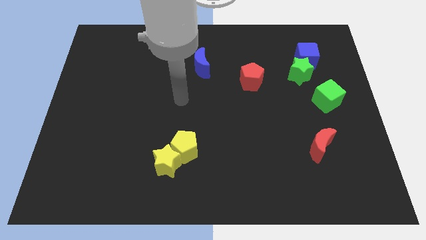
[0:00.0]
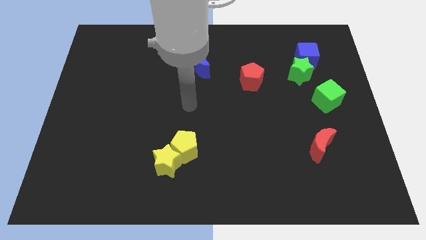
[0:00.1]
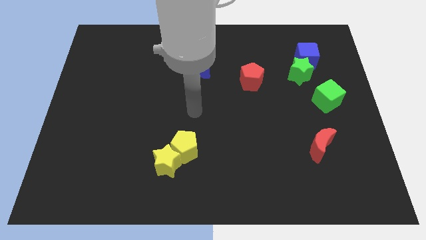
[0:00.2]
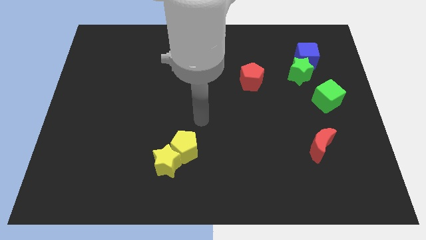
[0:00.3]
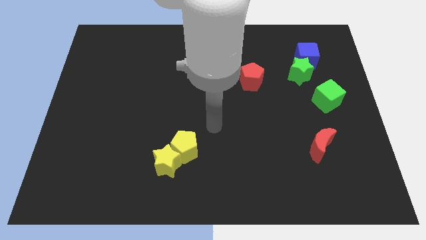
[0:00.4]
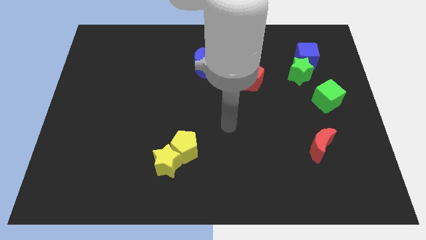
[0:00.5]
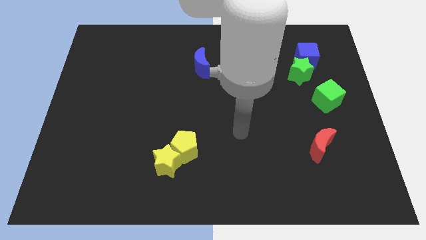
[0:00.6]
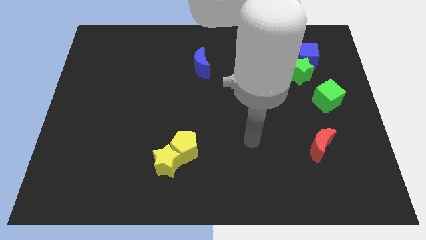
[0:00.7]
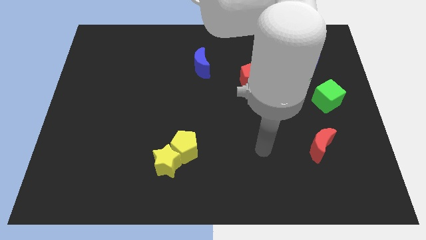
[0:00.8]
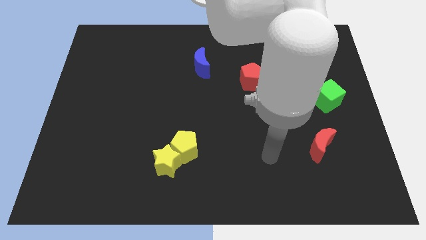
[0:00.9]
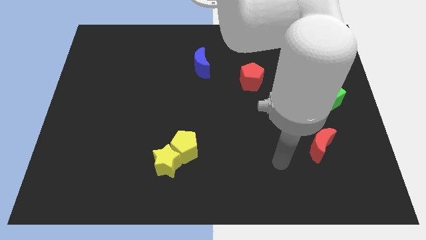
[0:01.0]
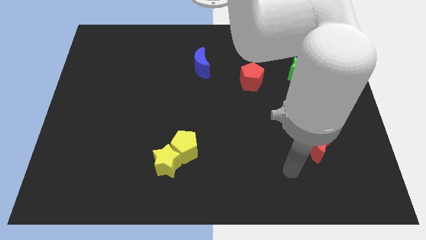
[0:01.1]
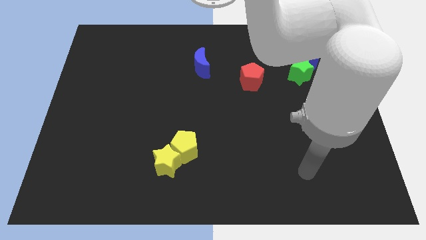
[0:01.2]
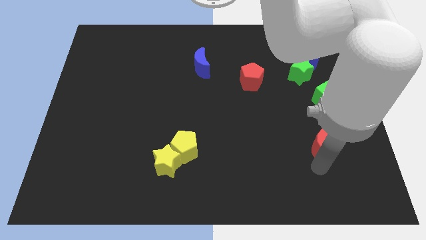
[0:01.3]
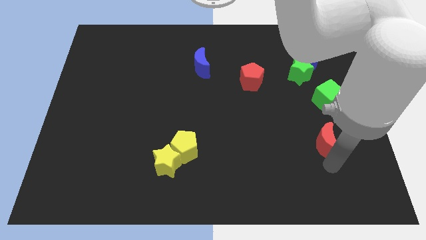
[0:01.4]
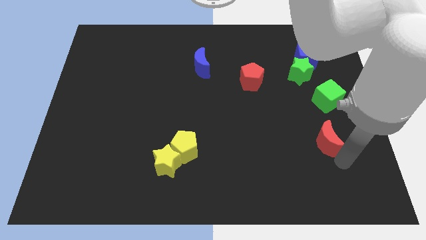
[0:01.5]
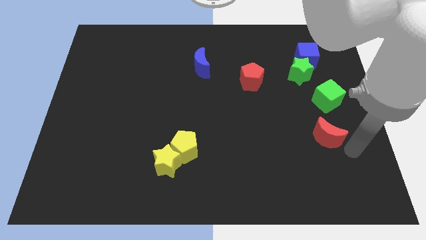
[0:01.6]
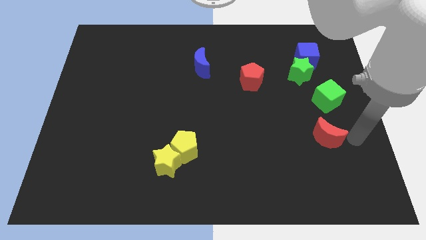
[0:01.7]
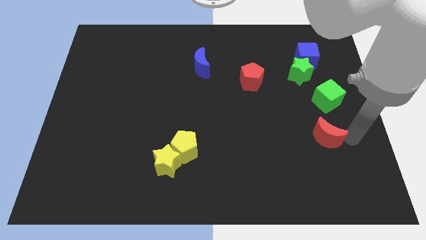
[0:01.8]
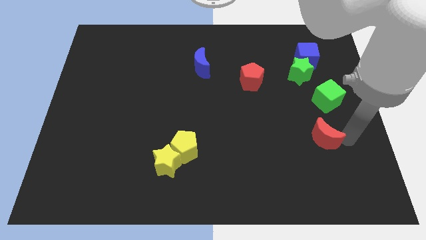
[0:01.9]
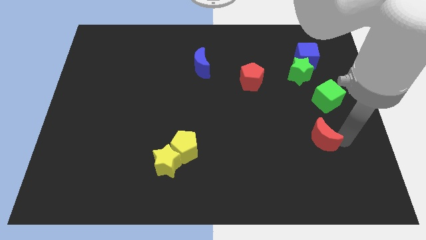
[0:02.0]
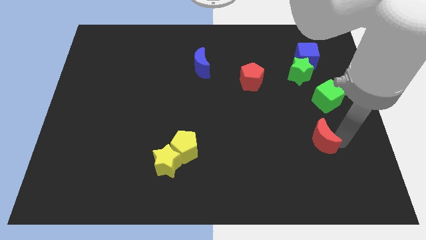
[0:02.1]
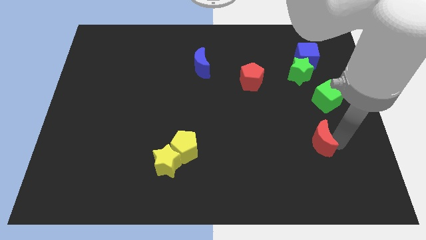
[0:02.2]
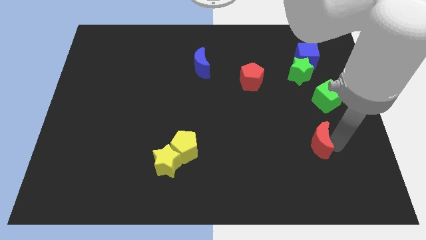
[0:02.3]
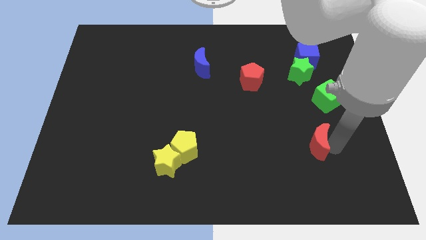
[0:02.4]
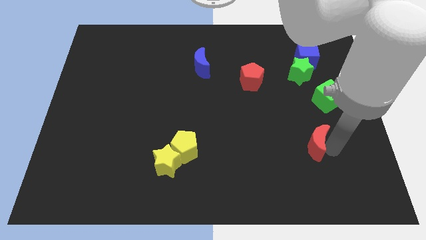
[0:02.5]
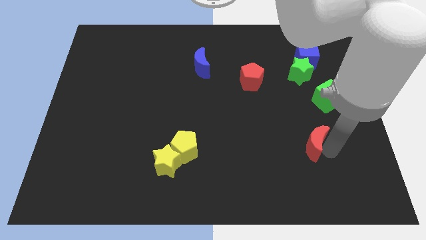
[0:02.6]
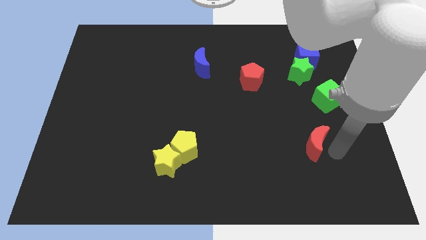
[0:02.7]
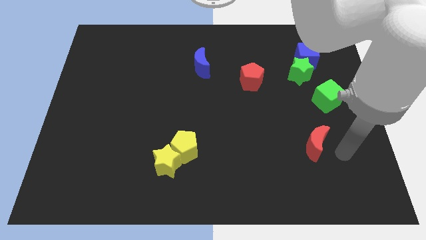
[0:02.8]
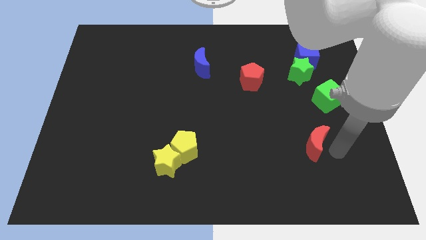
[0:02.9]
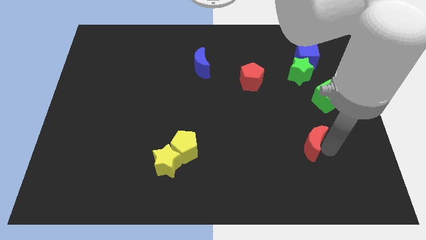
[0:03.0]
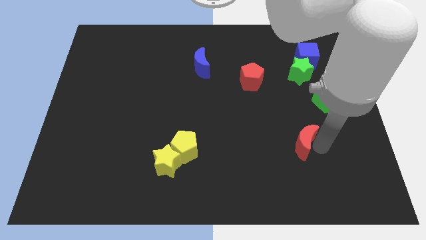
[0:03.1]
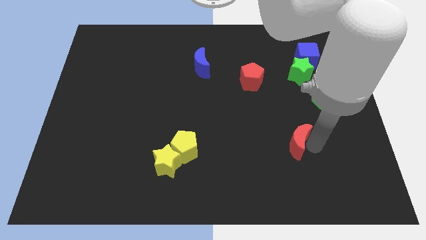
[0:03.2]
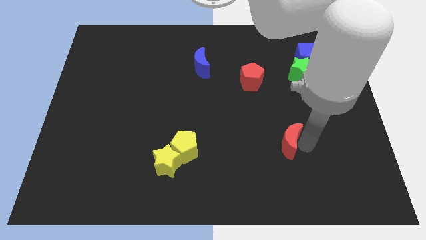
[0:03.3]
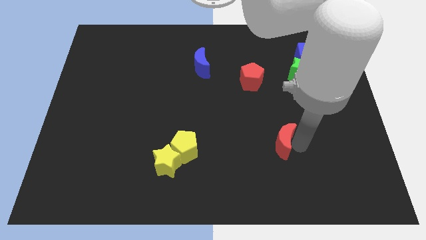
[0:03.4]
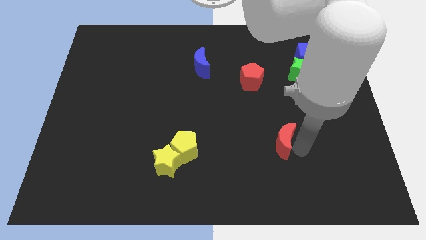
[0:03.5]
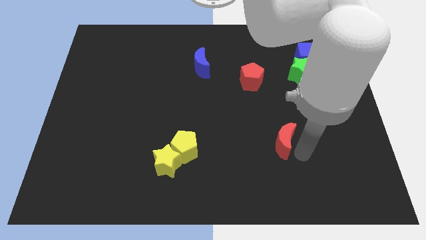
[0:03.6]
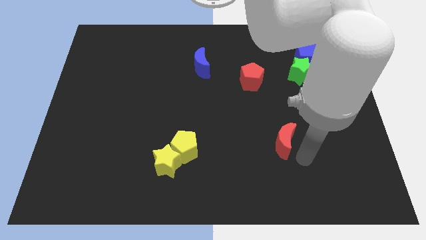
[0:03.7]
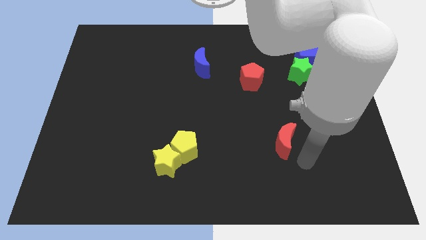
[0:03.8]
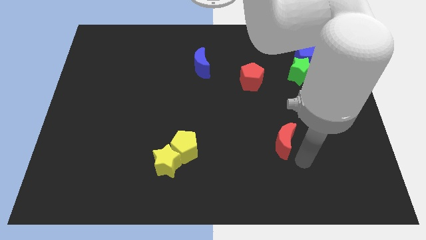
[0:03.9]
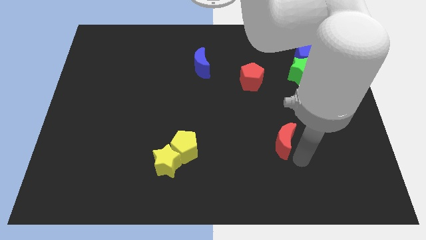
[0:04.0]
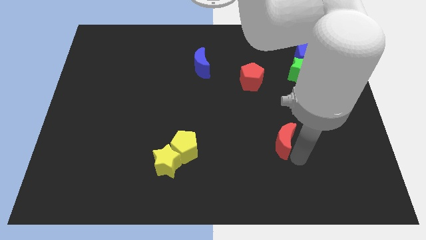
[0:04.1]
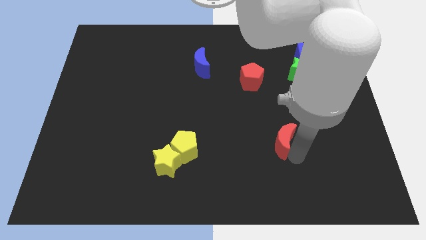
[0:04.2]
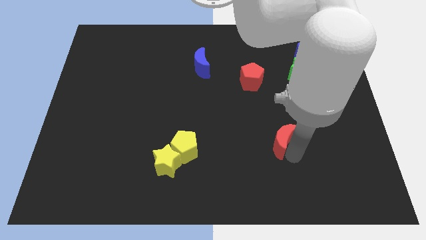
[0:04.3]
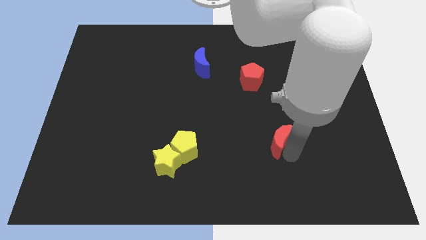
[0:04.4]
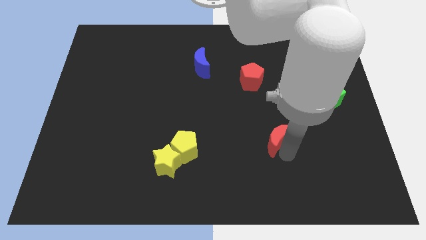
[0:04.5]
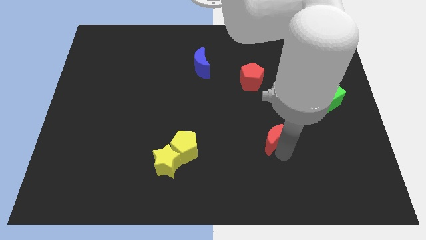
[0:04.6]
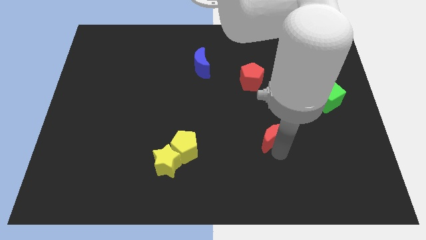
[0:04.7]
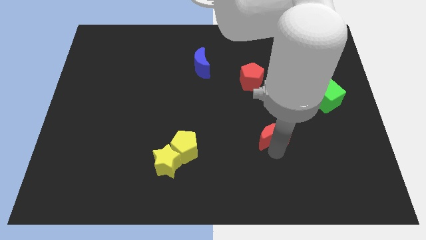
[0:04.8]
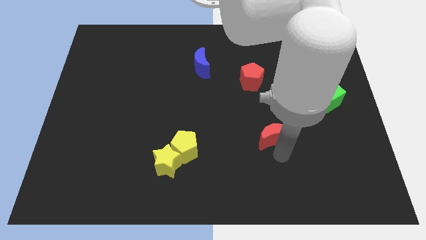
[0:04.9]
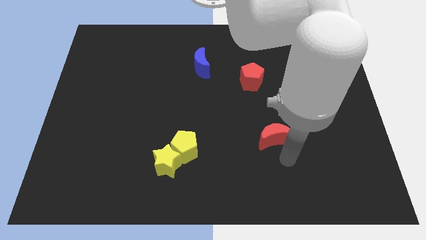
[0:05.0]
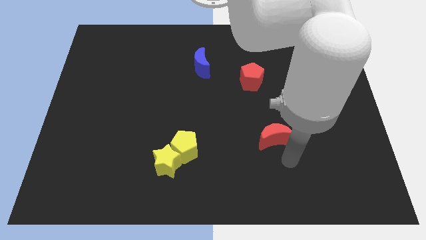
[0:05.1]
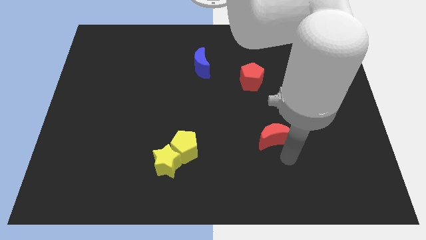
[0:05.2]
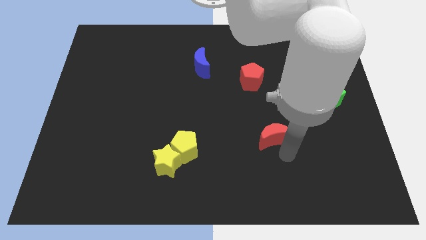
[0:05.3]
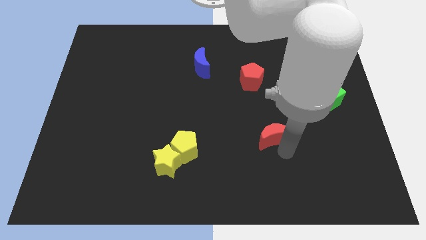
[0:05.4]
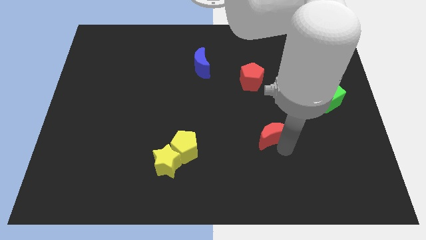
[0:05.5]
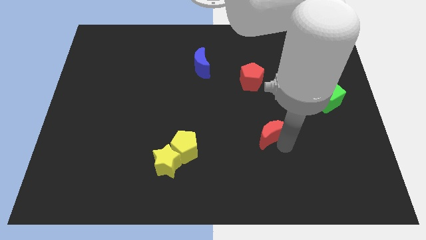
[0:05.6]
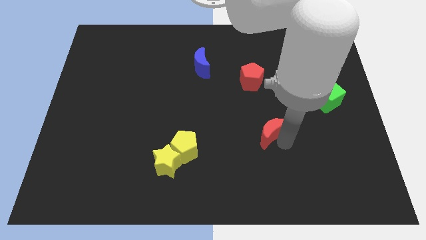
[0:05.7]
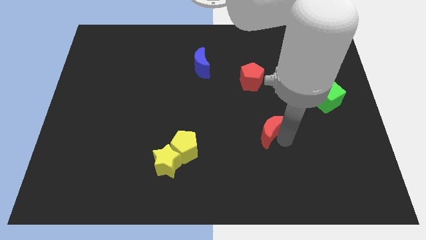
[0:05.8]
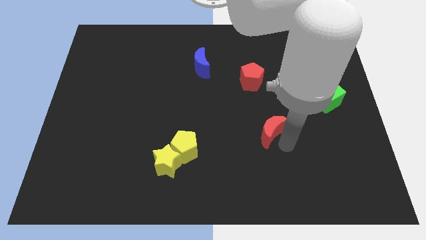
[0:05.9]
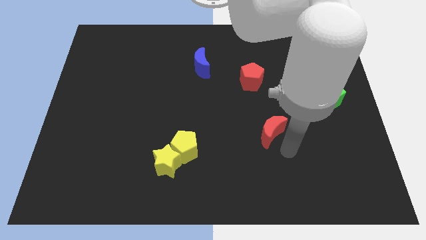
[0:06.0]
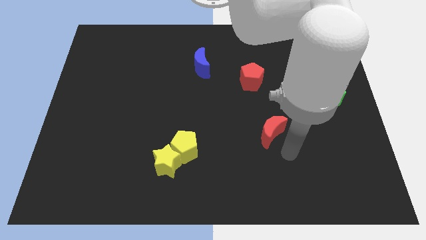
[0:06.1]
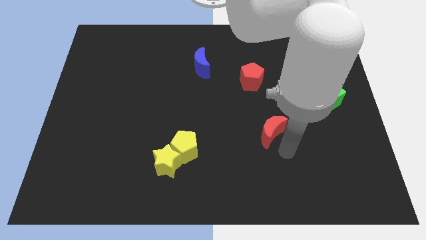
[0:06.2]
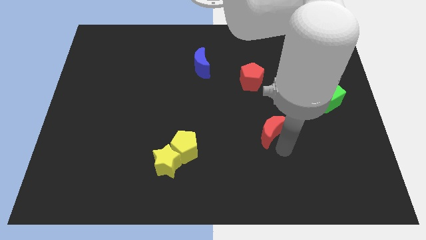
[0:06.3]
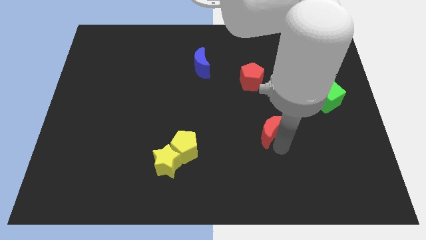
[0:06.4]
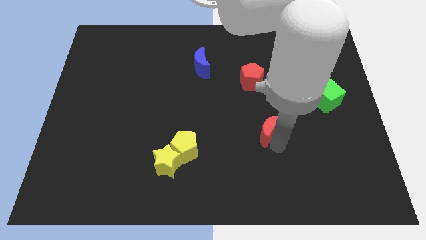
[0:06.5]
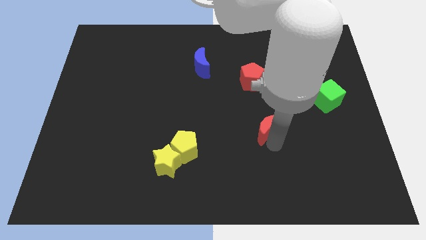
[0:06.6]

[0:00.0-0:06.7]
move the red moon to the bottom side of the red pentagon

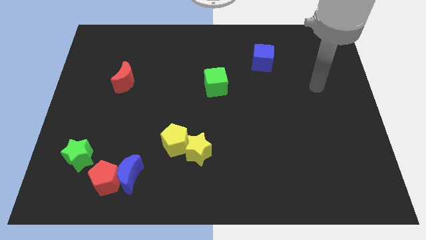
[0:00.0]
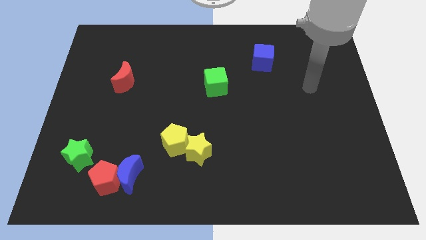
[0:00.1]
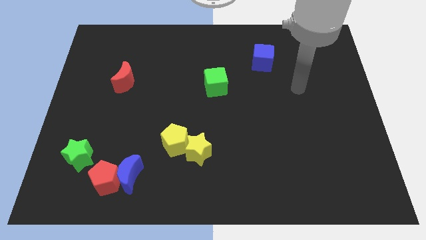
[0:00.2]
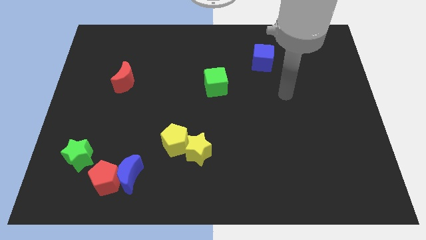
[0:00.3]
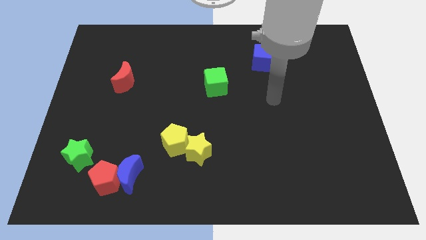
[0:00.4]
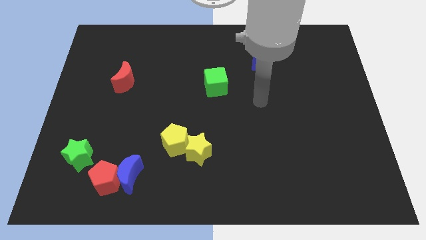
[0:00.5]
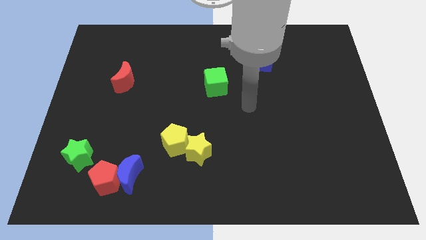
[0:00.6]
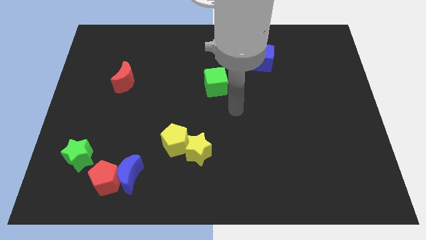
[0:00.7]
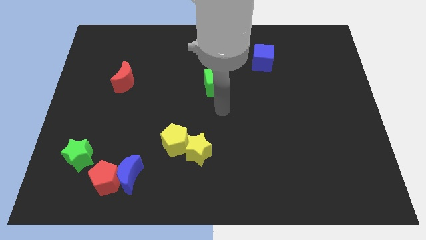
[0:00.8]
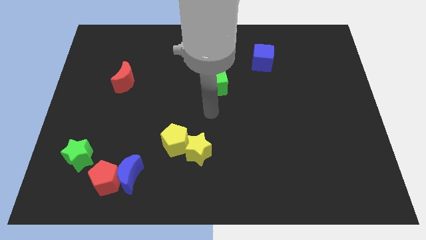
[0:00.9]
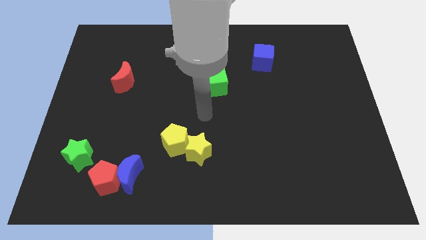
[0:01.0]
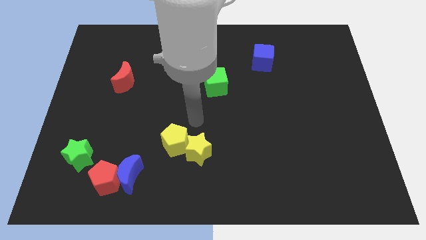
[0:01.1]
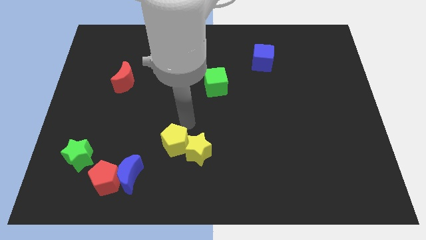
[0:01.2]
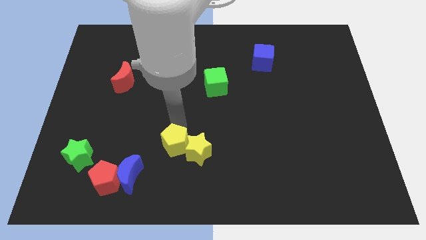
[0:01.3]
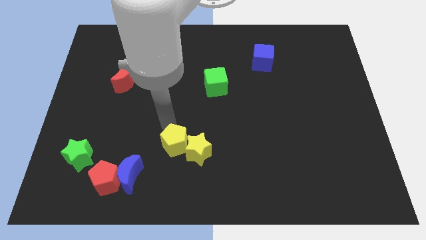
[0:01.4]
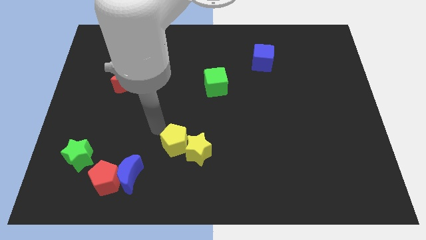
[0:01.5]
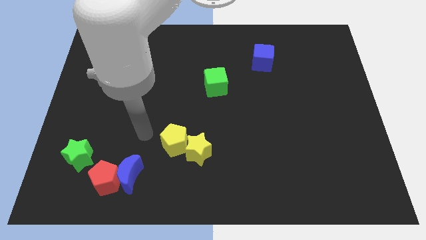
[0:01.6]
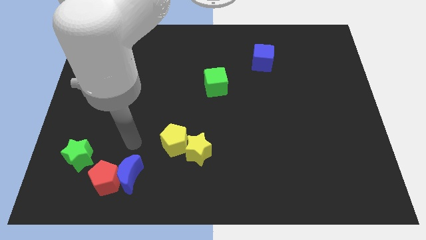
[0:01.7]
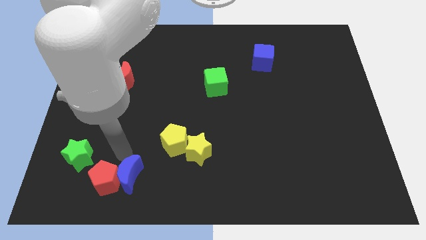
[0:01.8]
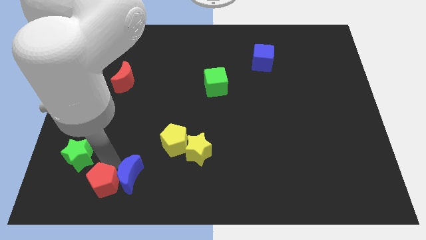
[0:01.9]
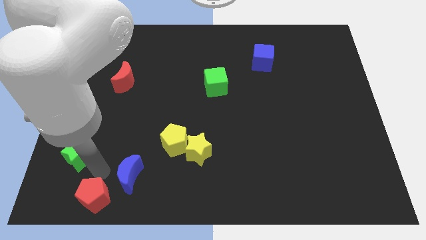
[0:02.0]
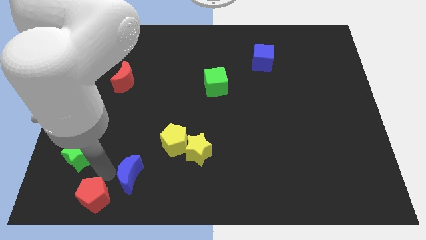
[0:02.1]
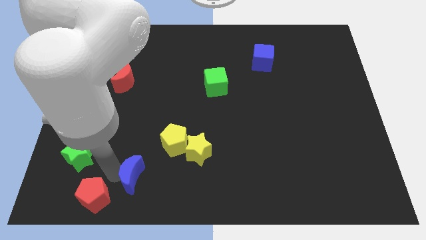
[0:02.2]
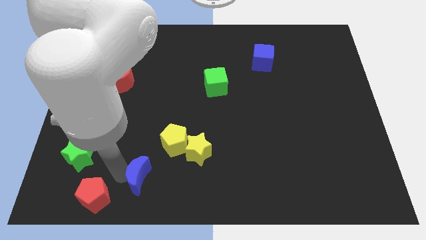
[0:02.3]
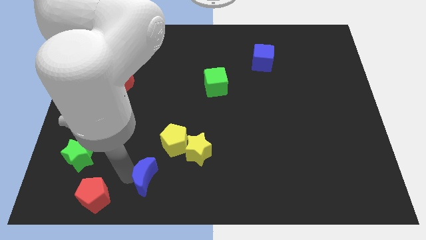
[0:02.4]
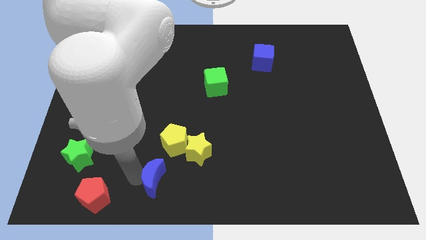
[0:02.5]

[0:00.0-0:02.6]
put the blue moon to the bottom left of the yellow star
